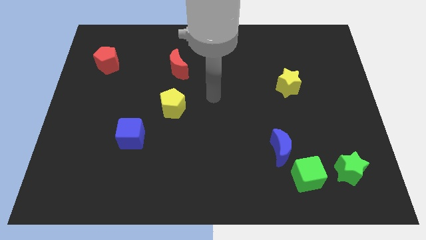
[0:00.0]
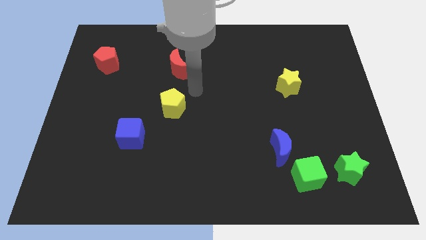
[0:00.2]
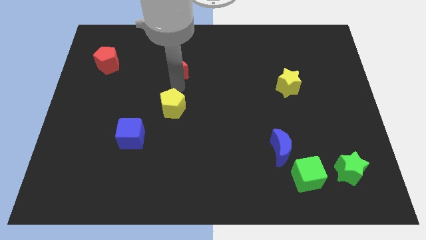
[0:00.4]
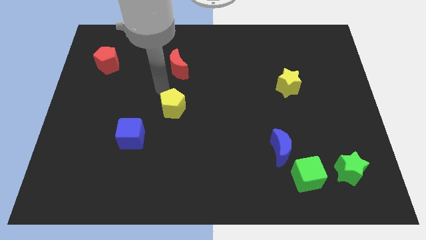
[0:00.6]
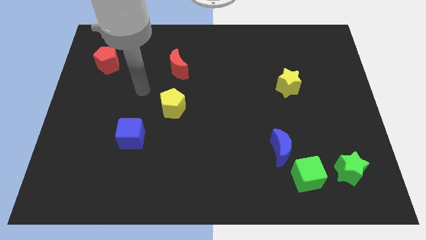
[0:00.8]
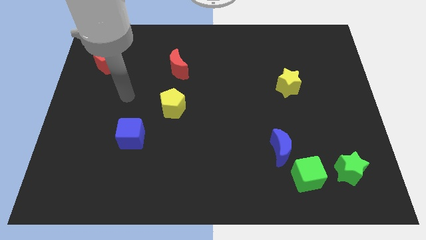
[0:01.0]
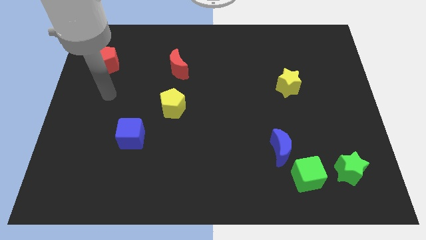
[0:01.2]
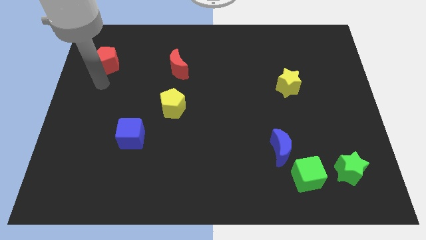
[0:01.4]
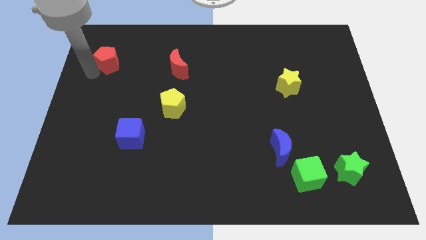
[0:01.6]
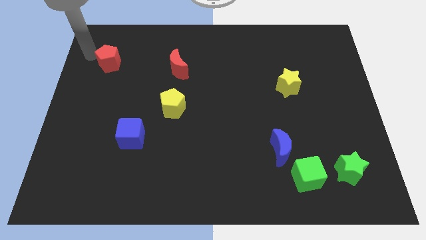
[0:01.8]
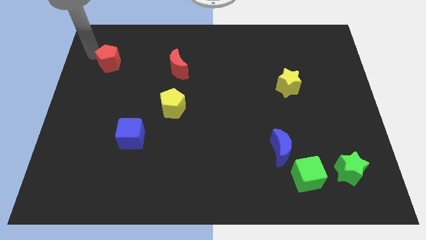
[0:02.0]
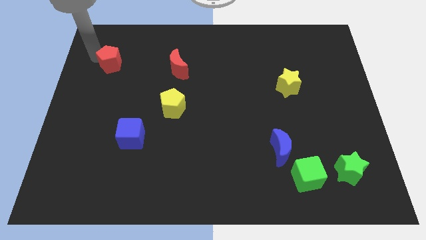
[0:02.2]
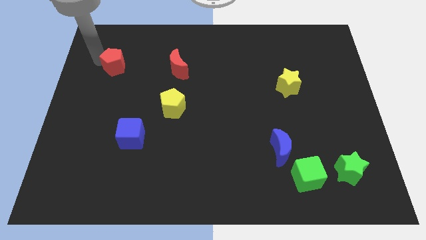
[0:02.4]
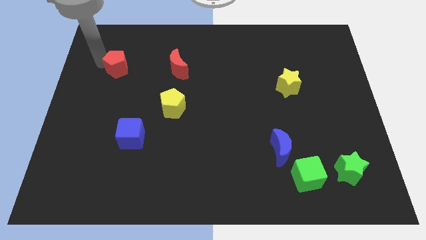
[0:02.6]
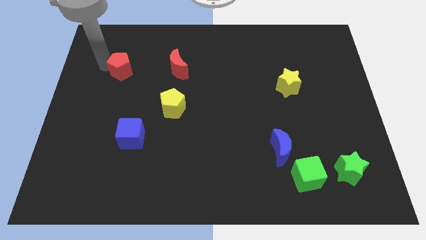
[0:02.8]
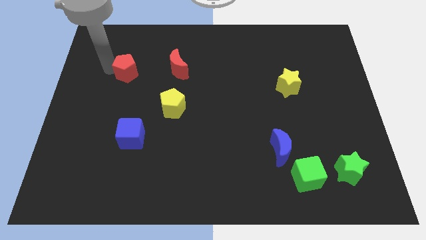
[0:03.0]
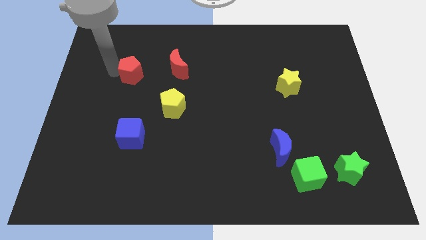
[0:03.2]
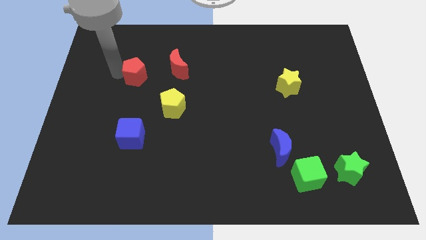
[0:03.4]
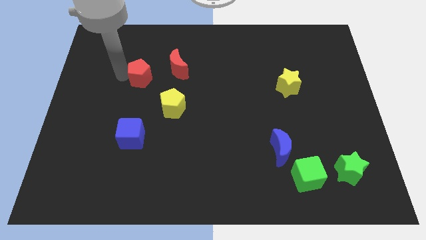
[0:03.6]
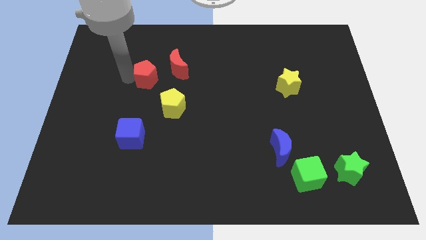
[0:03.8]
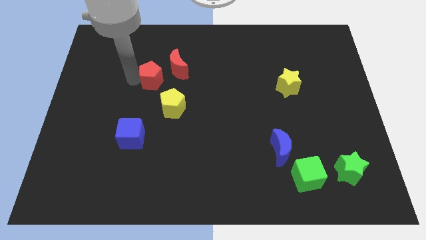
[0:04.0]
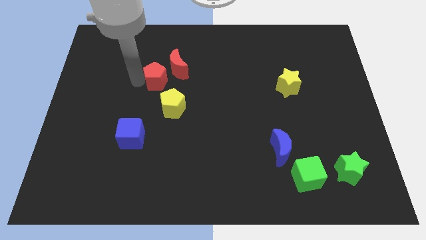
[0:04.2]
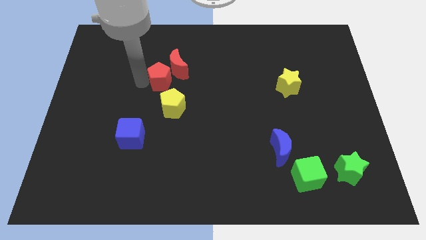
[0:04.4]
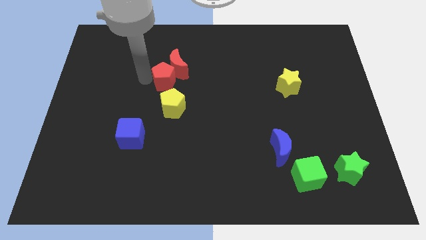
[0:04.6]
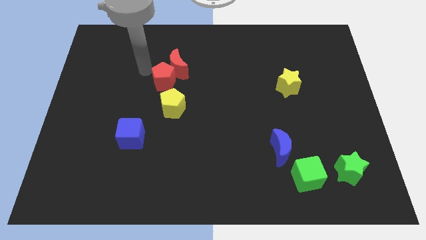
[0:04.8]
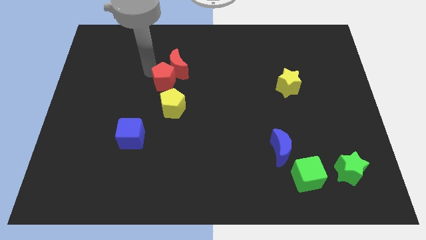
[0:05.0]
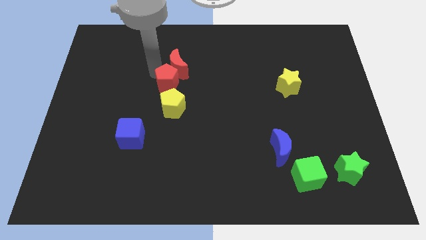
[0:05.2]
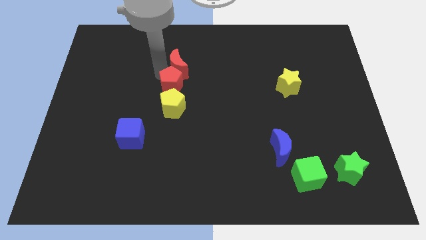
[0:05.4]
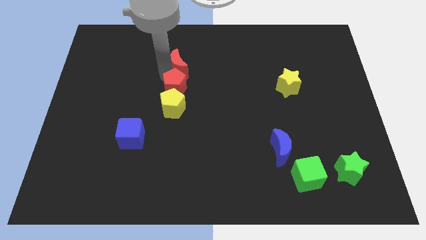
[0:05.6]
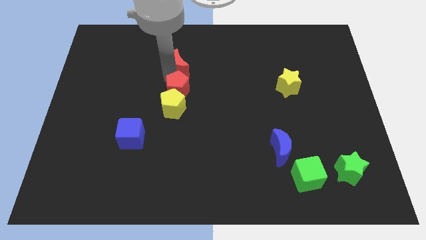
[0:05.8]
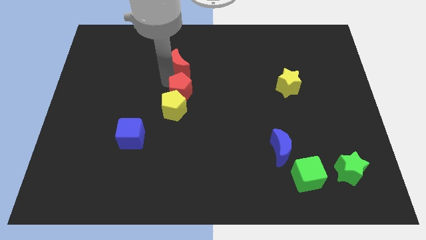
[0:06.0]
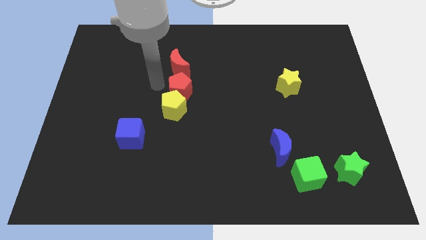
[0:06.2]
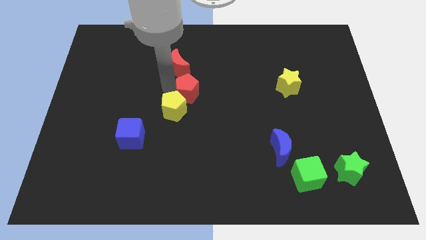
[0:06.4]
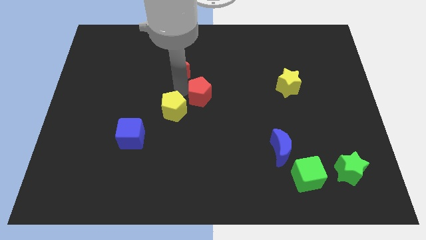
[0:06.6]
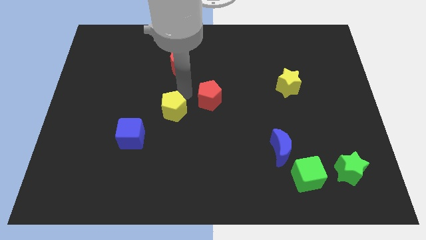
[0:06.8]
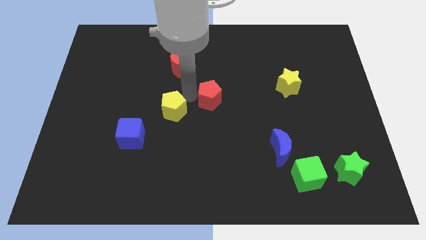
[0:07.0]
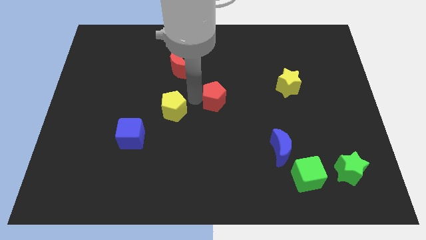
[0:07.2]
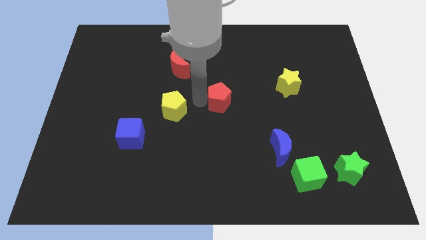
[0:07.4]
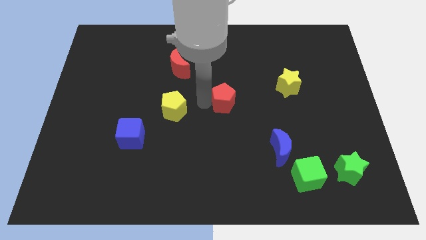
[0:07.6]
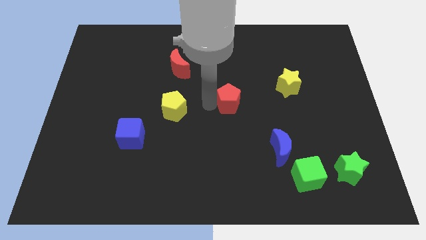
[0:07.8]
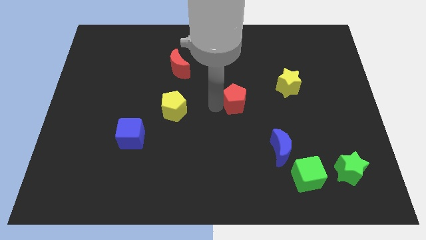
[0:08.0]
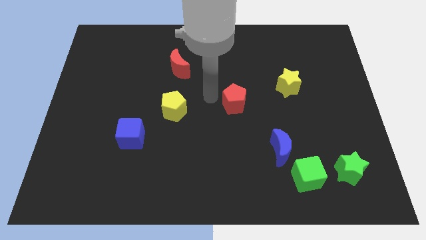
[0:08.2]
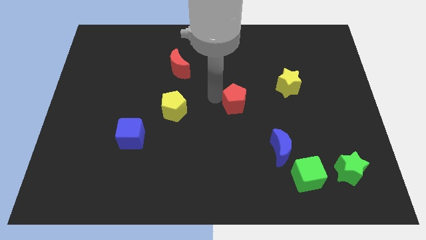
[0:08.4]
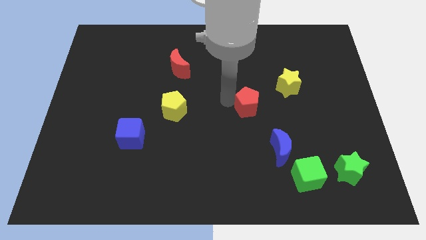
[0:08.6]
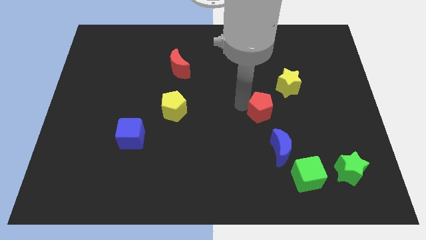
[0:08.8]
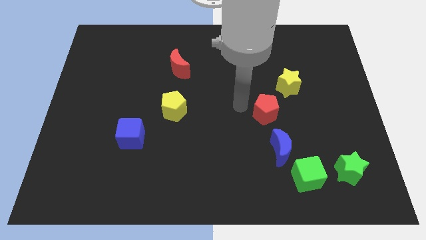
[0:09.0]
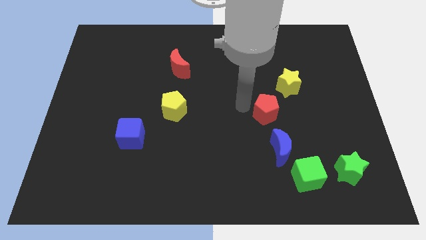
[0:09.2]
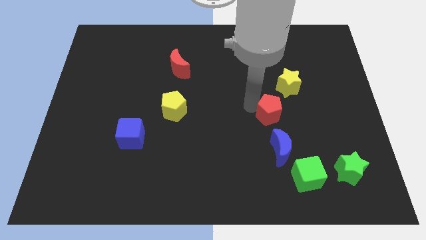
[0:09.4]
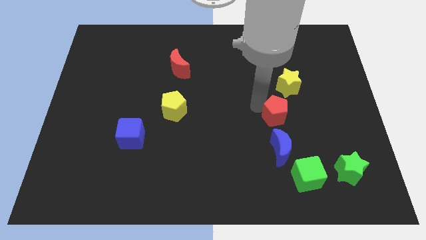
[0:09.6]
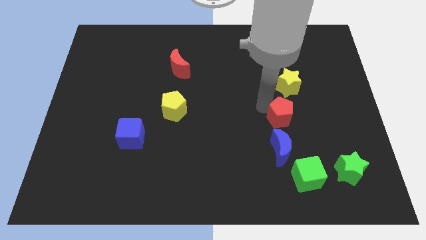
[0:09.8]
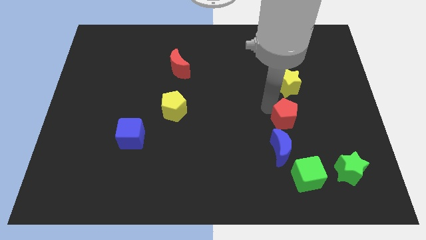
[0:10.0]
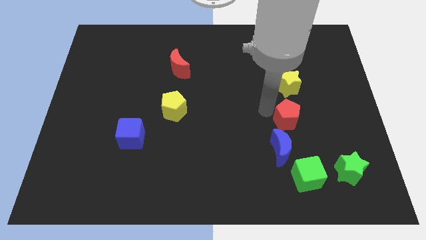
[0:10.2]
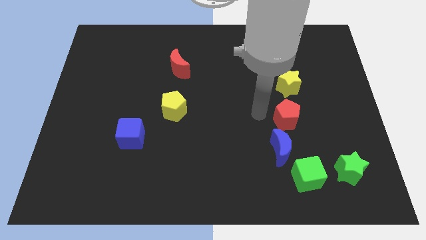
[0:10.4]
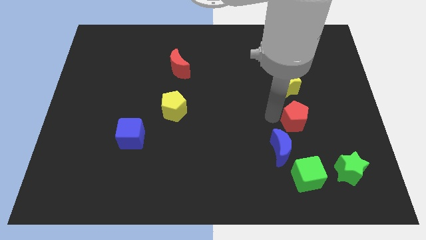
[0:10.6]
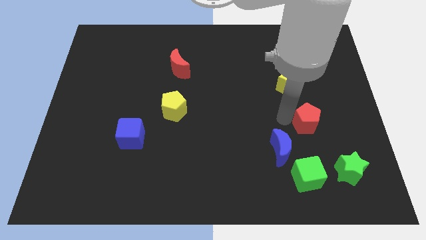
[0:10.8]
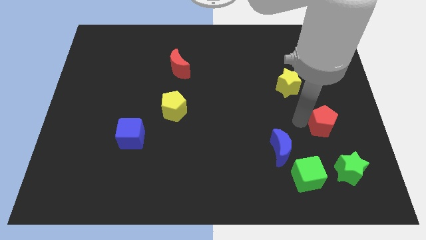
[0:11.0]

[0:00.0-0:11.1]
move the red pentagon to the top side of the green star

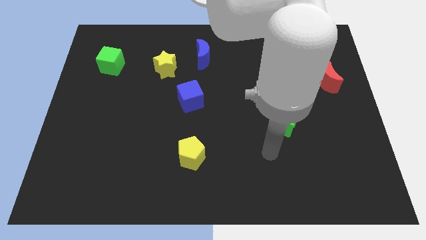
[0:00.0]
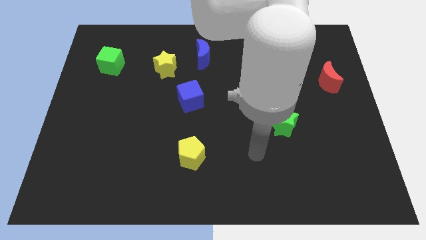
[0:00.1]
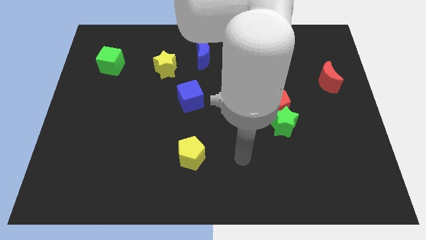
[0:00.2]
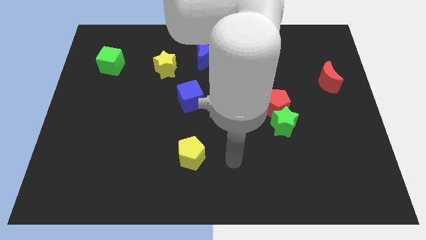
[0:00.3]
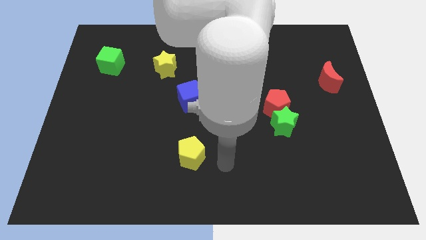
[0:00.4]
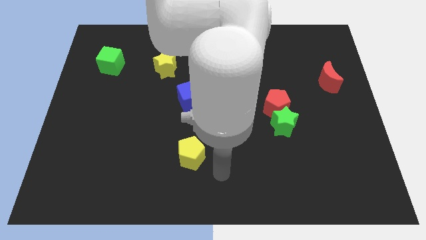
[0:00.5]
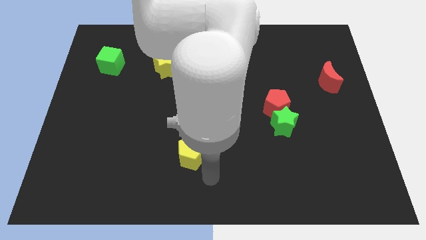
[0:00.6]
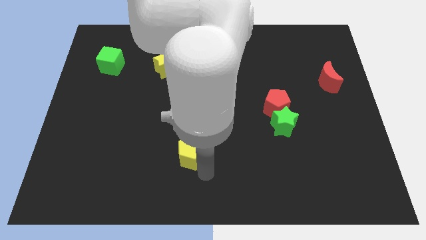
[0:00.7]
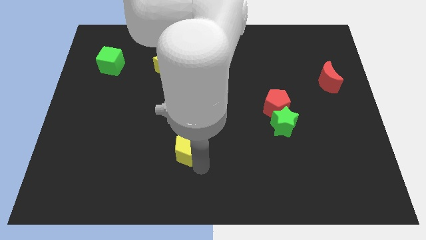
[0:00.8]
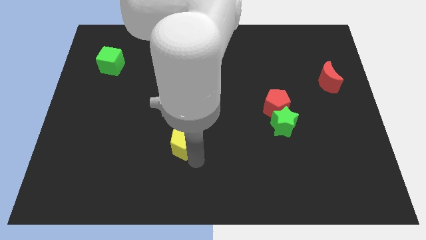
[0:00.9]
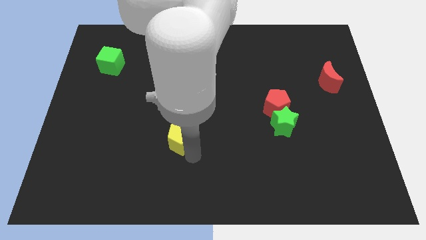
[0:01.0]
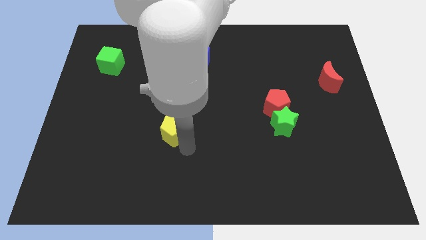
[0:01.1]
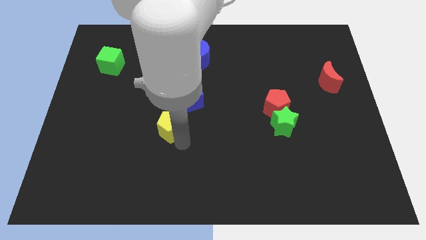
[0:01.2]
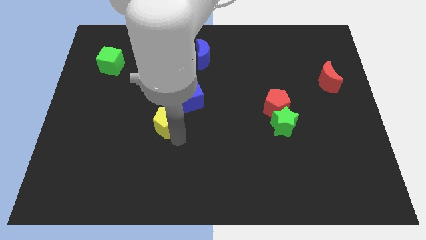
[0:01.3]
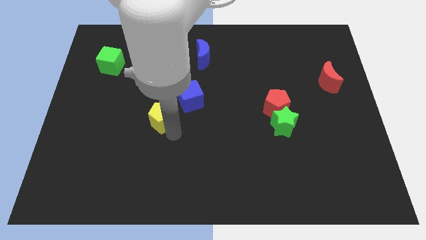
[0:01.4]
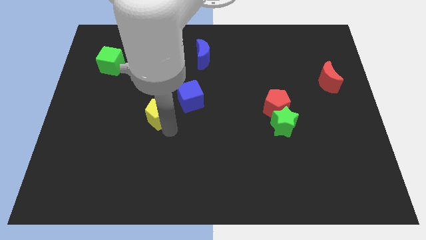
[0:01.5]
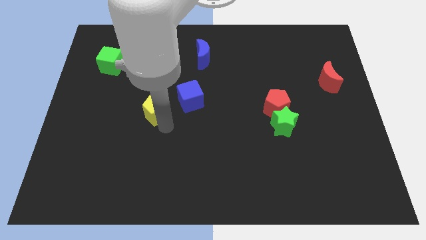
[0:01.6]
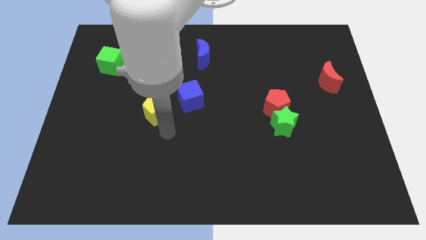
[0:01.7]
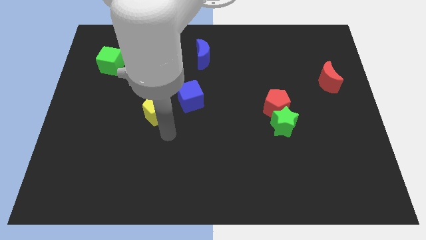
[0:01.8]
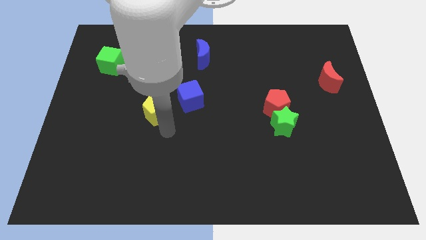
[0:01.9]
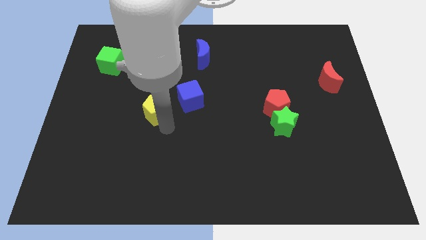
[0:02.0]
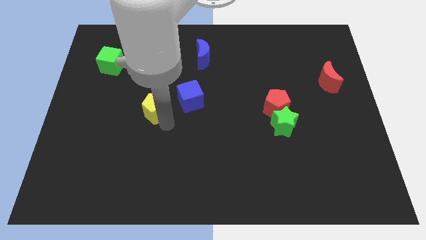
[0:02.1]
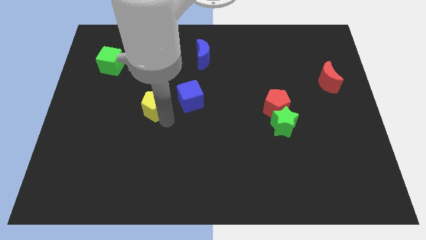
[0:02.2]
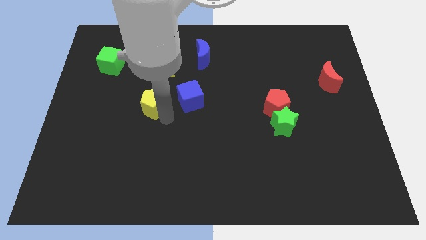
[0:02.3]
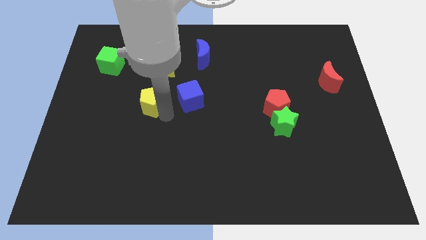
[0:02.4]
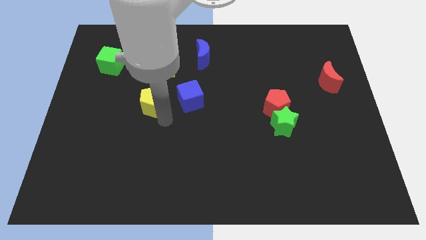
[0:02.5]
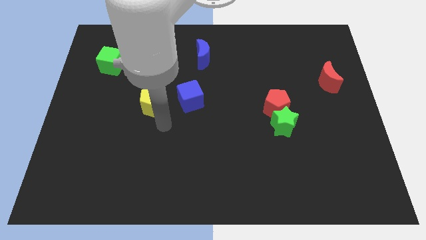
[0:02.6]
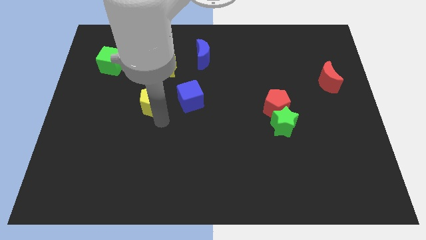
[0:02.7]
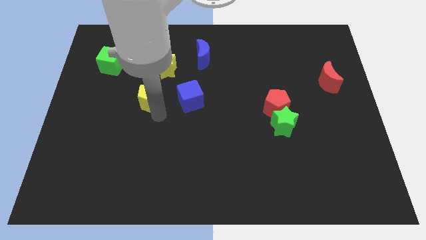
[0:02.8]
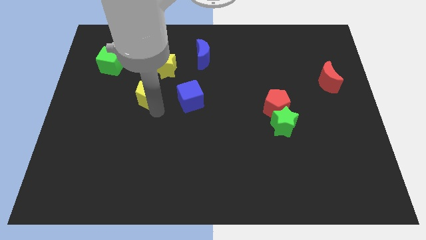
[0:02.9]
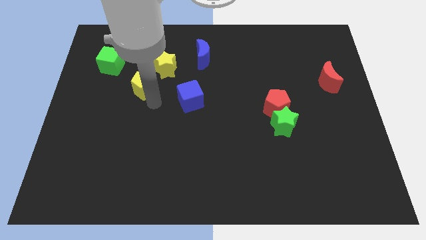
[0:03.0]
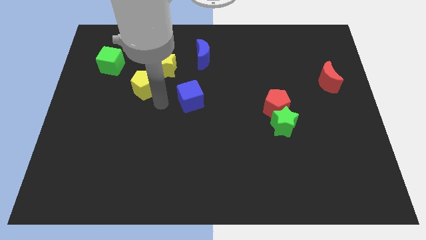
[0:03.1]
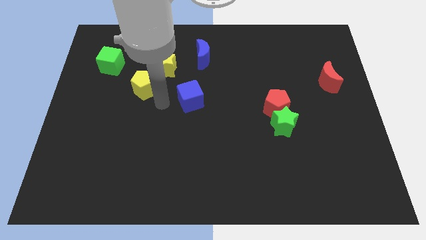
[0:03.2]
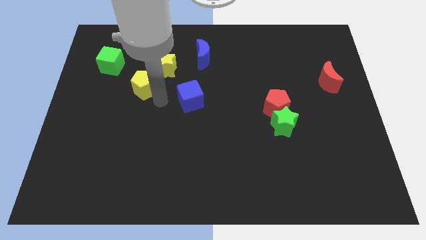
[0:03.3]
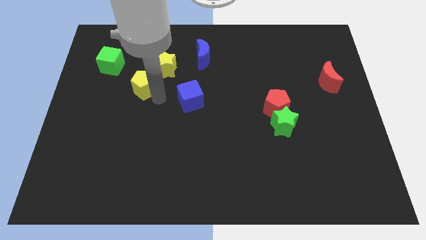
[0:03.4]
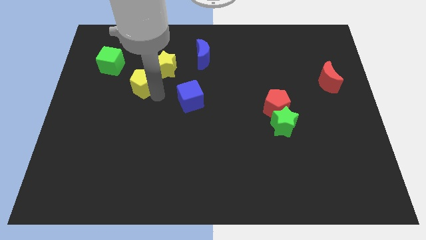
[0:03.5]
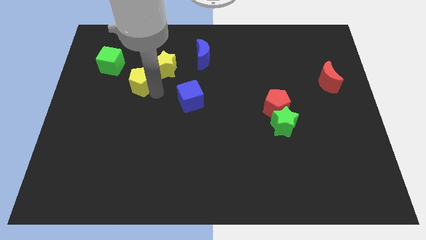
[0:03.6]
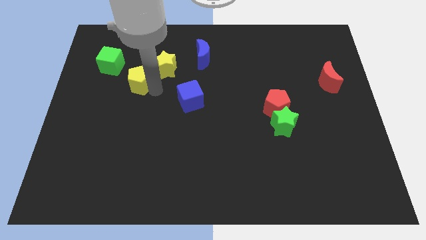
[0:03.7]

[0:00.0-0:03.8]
put the yellow pentagon just left of the yellow star
